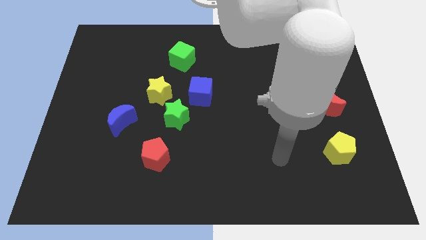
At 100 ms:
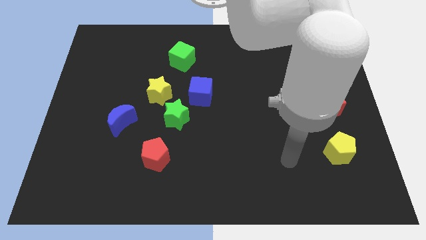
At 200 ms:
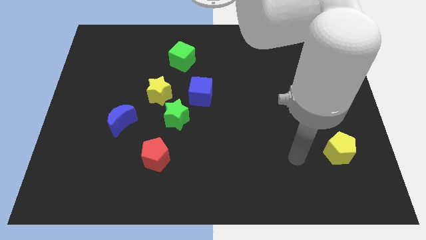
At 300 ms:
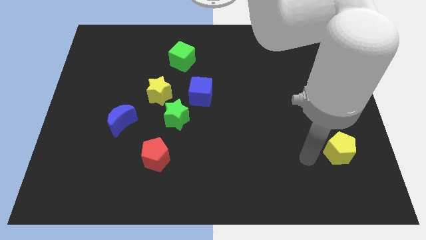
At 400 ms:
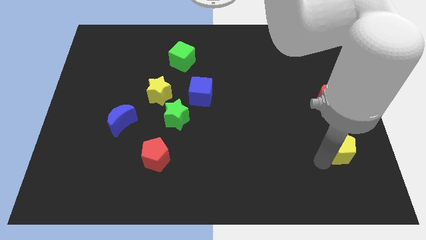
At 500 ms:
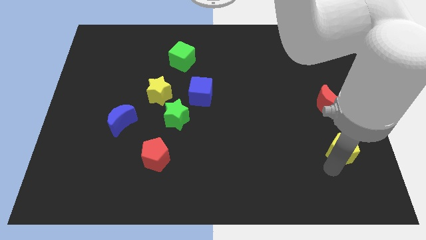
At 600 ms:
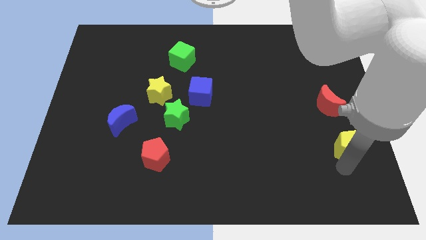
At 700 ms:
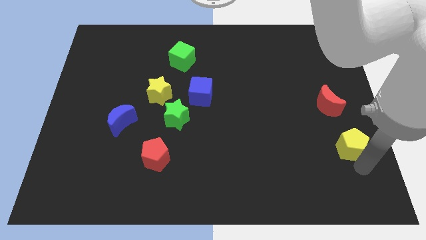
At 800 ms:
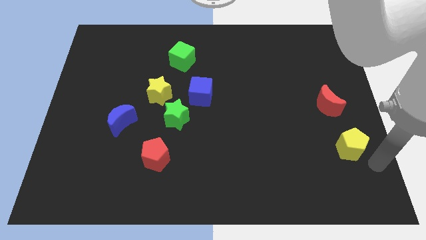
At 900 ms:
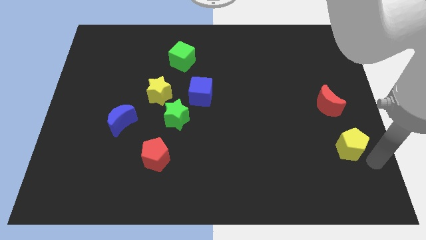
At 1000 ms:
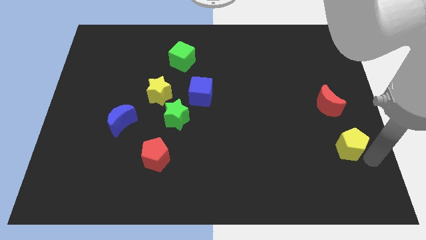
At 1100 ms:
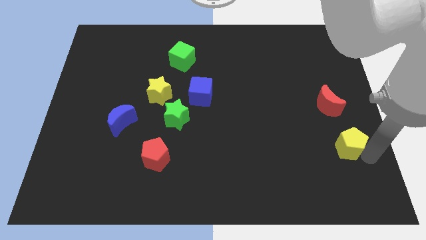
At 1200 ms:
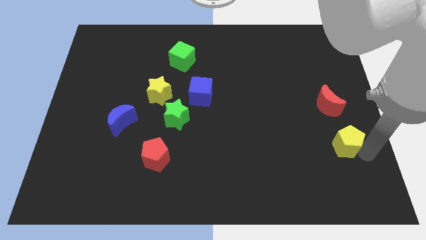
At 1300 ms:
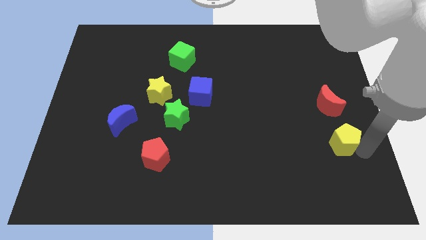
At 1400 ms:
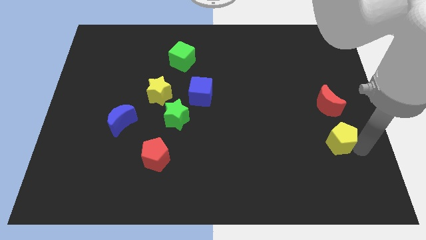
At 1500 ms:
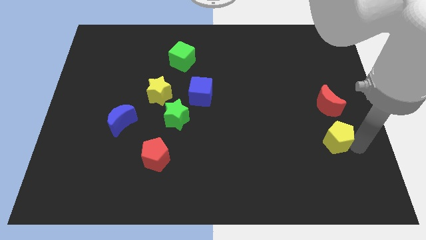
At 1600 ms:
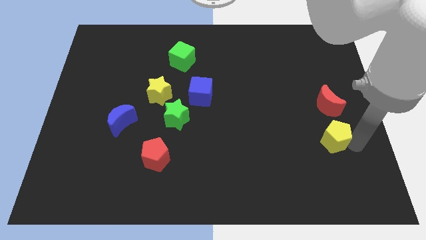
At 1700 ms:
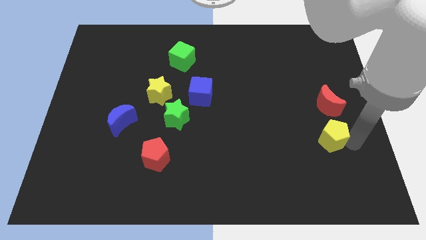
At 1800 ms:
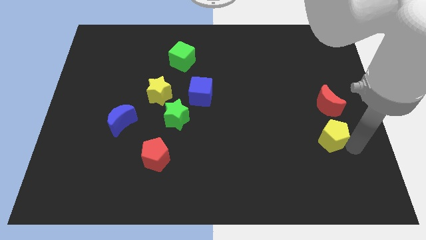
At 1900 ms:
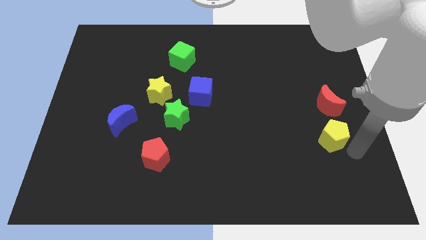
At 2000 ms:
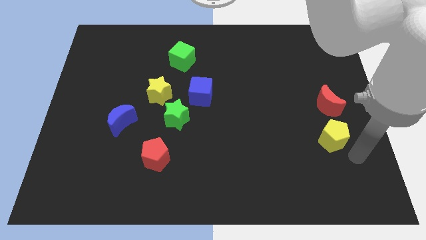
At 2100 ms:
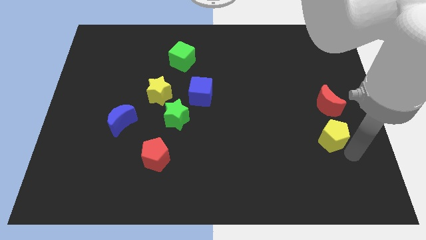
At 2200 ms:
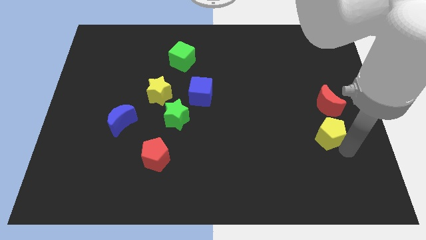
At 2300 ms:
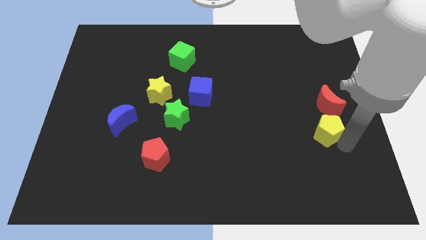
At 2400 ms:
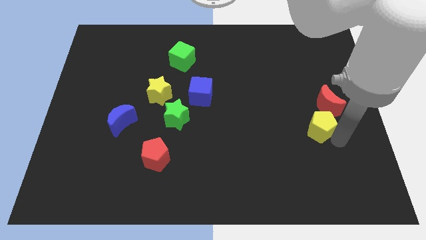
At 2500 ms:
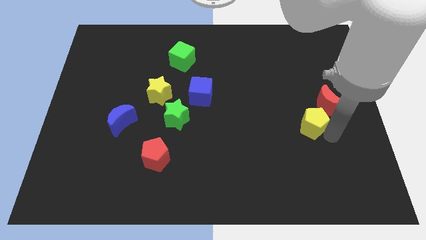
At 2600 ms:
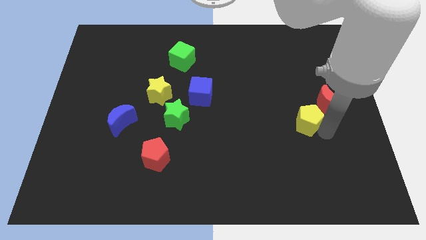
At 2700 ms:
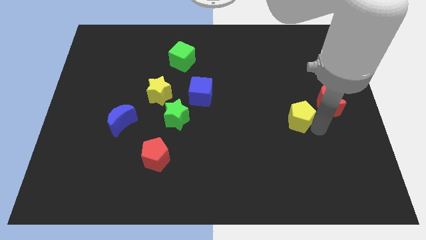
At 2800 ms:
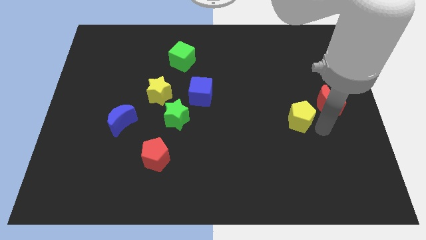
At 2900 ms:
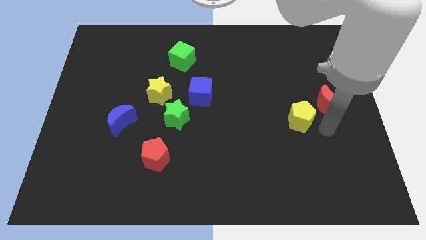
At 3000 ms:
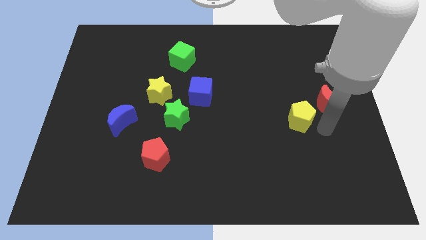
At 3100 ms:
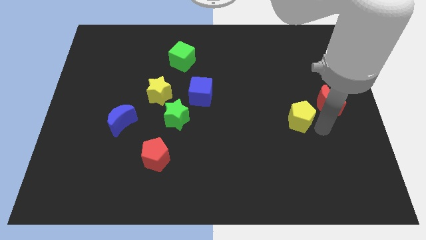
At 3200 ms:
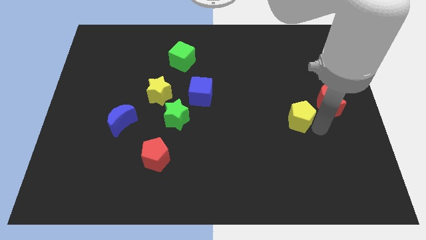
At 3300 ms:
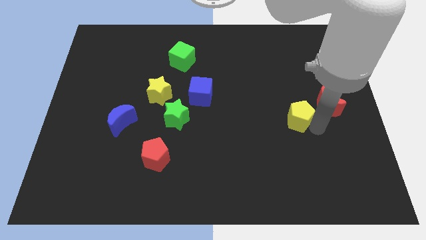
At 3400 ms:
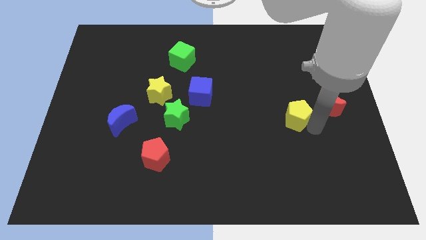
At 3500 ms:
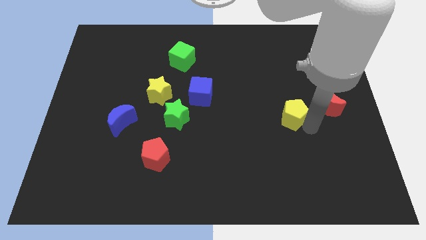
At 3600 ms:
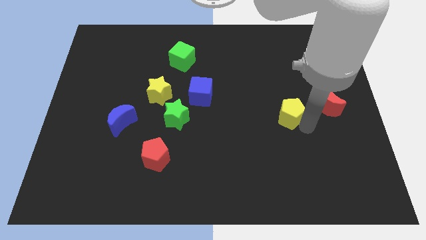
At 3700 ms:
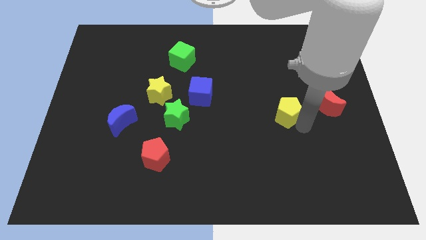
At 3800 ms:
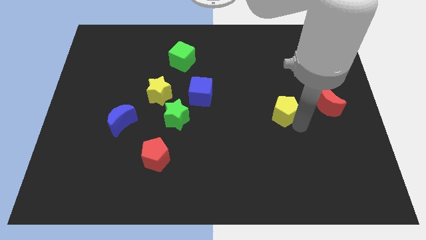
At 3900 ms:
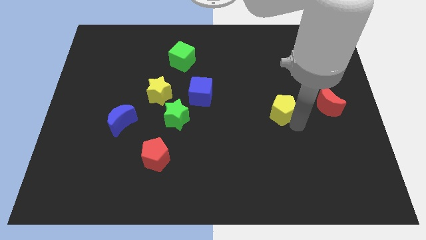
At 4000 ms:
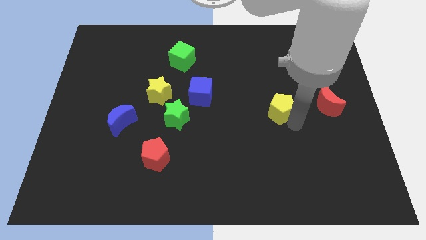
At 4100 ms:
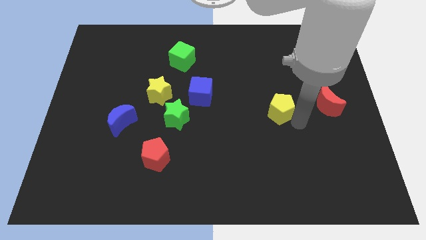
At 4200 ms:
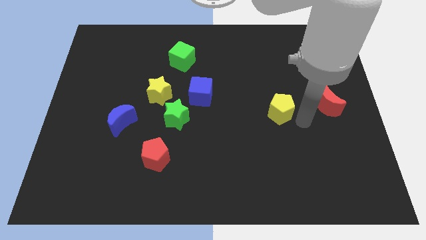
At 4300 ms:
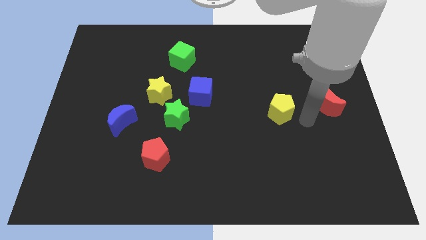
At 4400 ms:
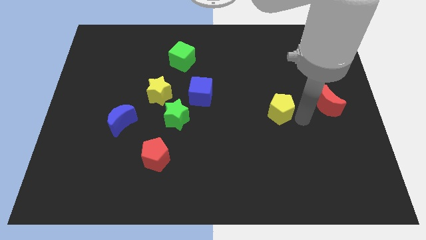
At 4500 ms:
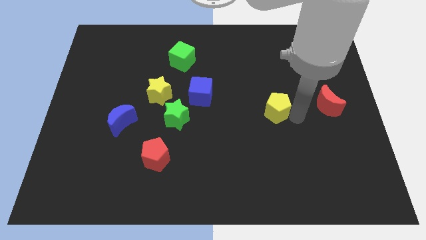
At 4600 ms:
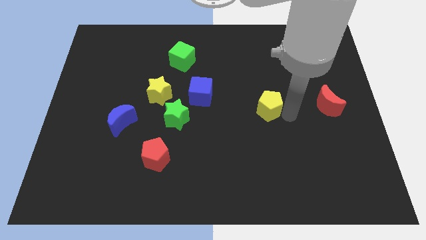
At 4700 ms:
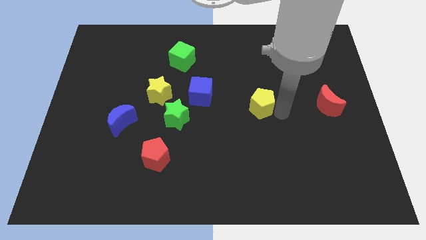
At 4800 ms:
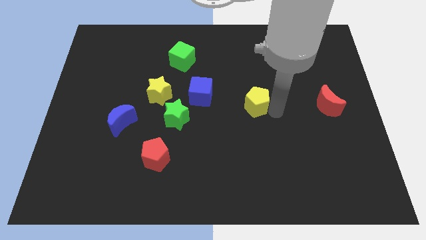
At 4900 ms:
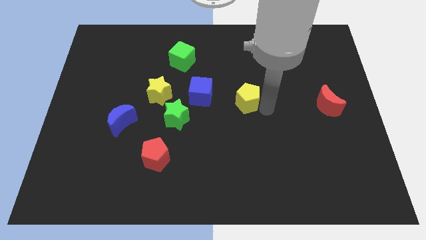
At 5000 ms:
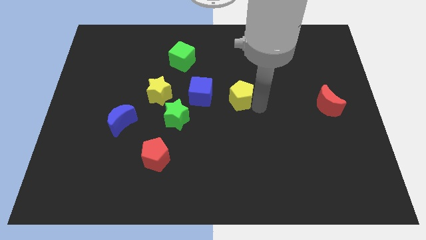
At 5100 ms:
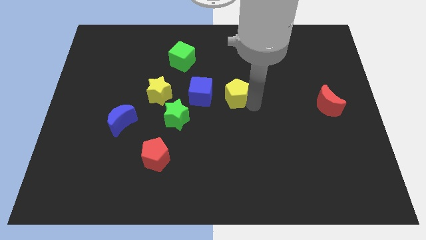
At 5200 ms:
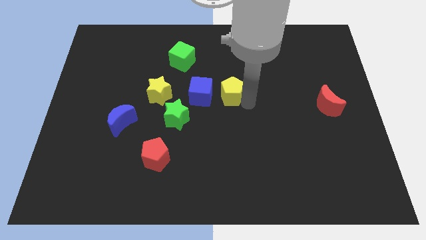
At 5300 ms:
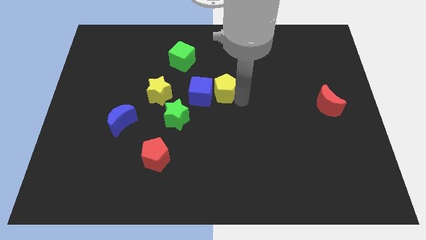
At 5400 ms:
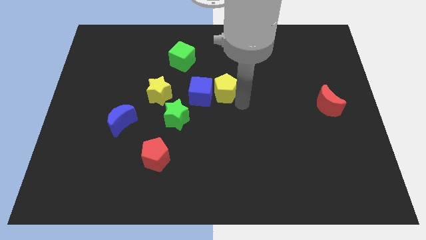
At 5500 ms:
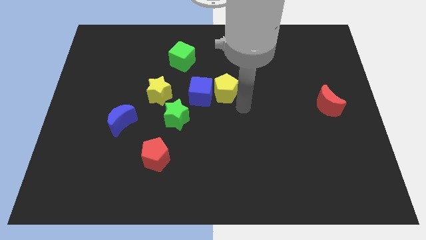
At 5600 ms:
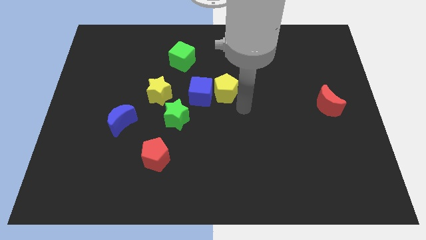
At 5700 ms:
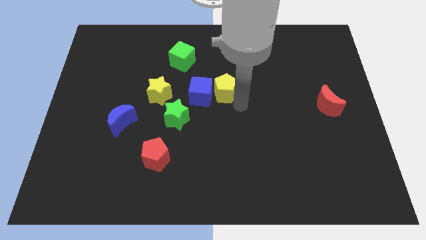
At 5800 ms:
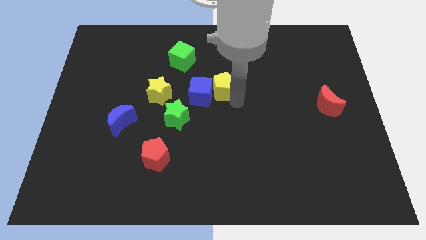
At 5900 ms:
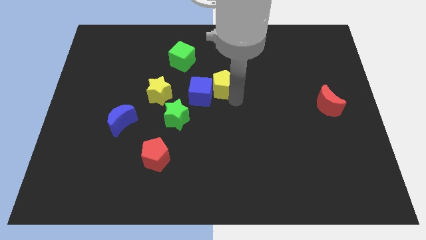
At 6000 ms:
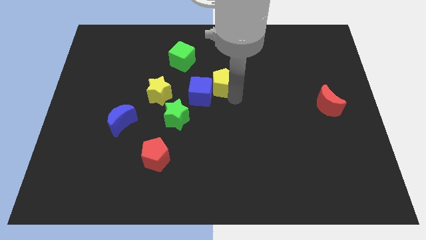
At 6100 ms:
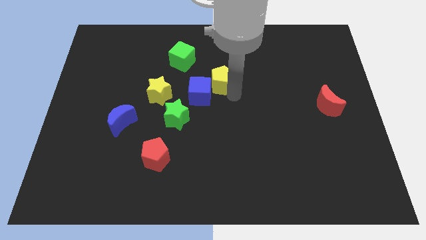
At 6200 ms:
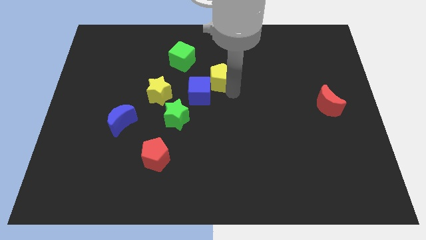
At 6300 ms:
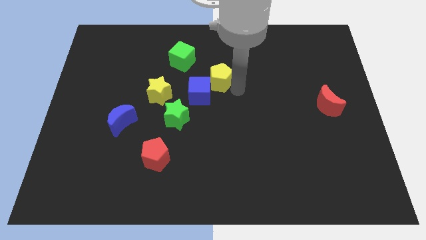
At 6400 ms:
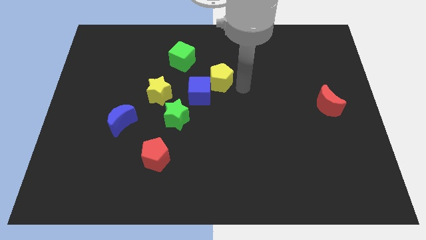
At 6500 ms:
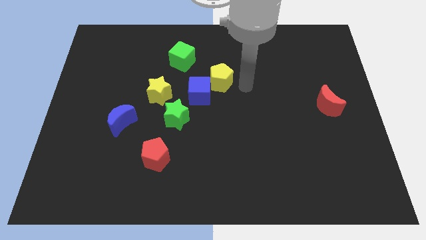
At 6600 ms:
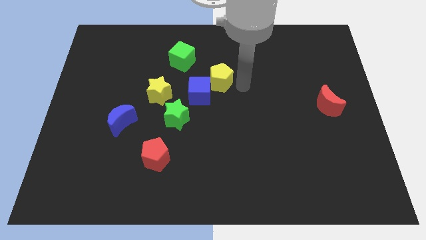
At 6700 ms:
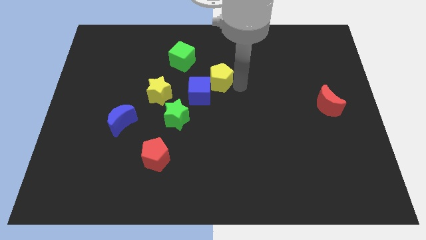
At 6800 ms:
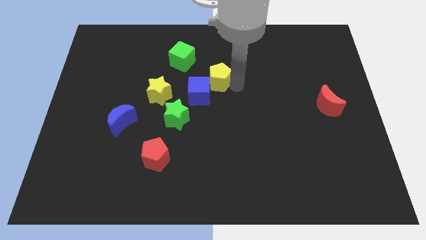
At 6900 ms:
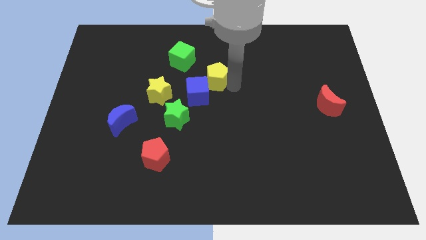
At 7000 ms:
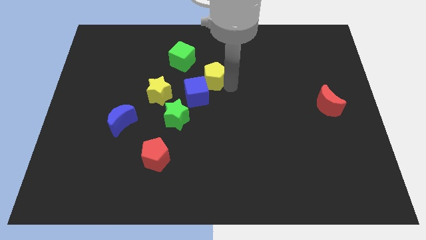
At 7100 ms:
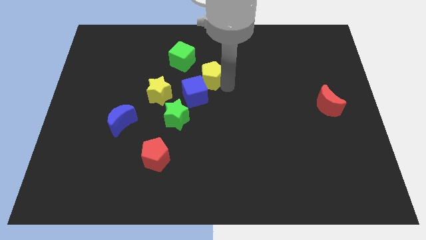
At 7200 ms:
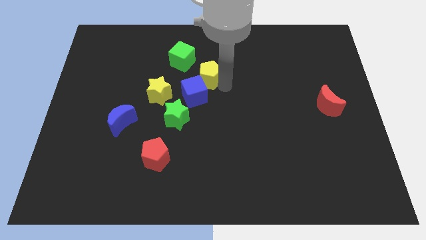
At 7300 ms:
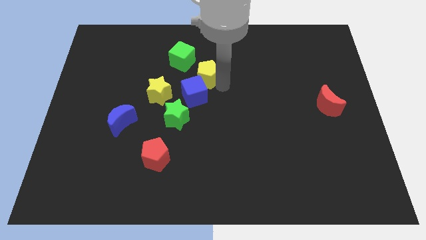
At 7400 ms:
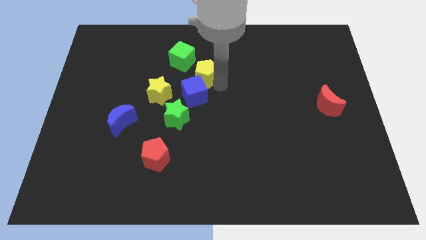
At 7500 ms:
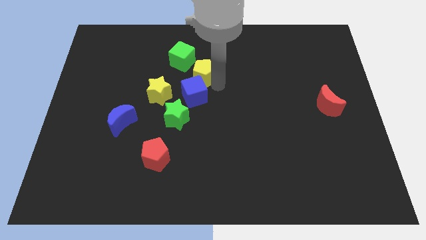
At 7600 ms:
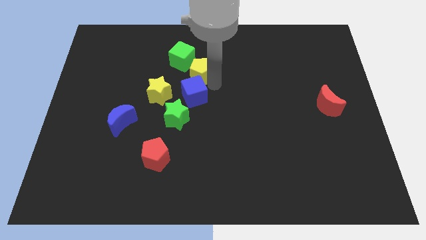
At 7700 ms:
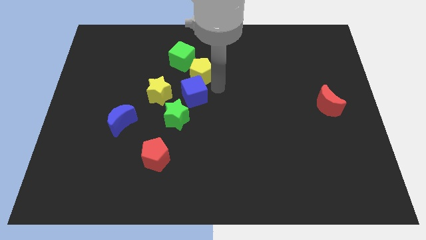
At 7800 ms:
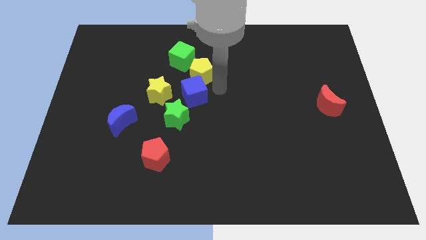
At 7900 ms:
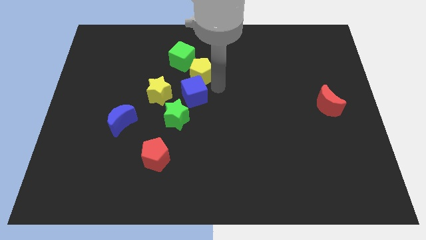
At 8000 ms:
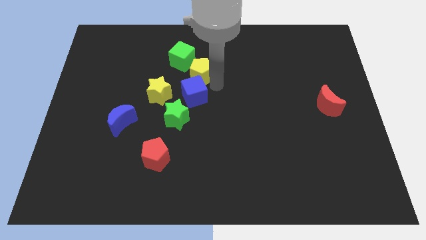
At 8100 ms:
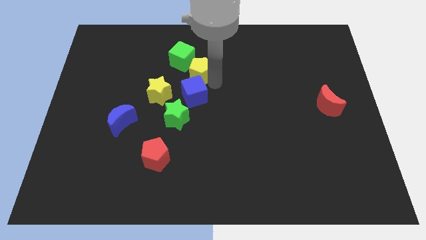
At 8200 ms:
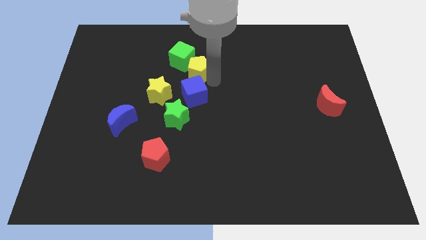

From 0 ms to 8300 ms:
slide the yellow pentagon to the green cube
